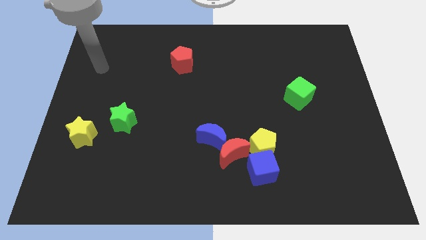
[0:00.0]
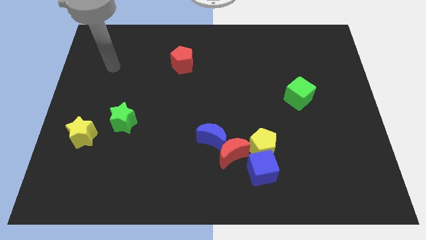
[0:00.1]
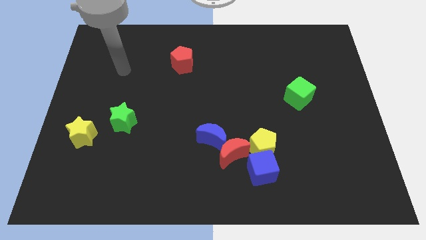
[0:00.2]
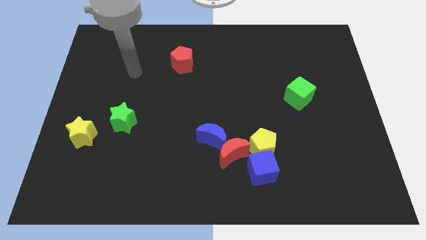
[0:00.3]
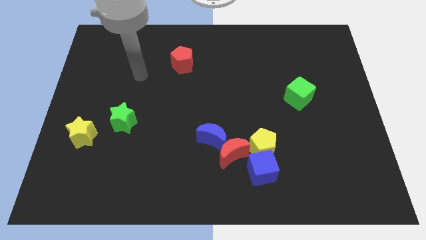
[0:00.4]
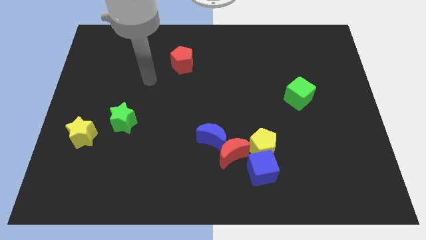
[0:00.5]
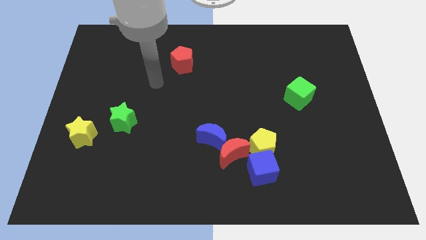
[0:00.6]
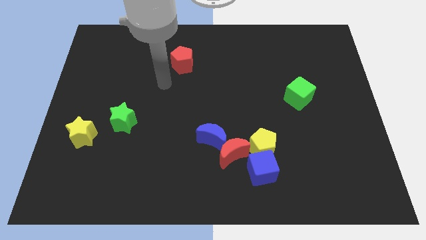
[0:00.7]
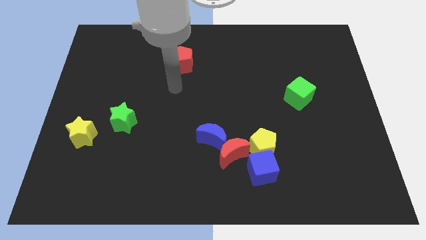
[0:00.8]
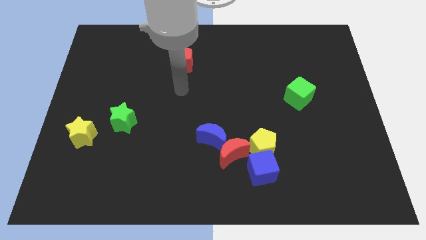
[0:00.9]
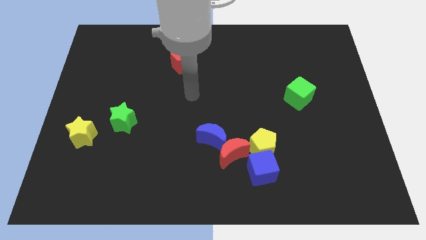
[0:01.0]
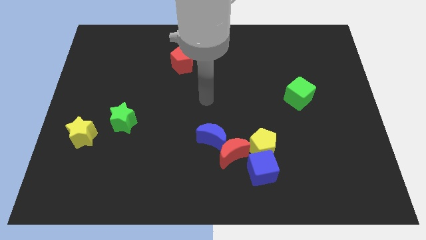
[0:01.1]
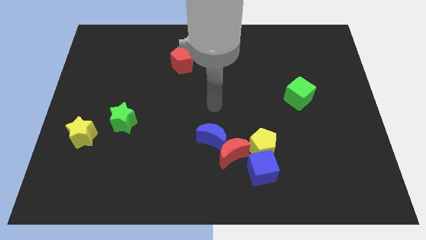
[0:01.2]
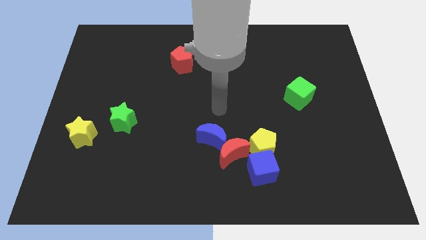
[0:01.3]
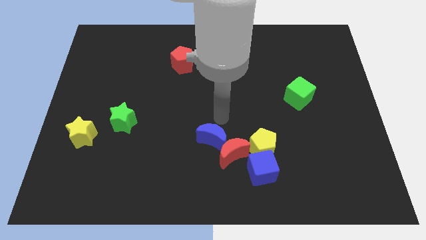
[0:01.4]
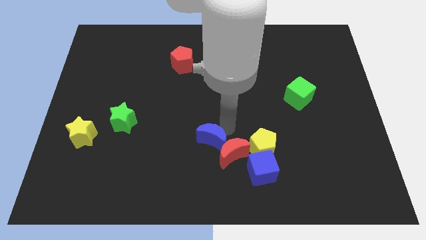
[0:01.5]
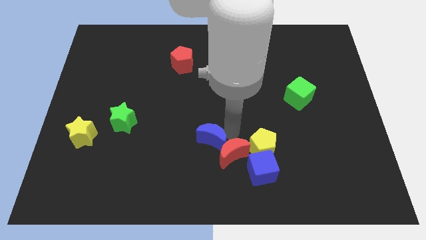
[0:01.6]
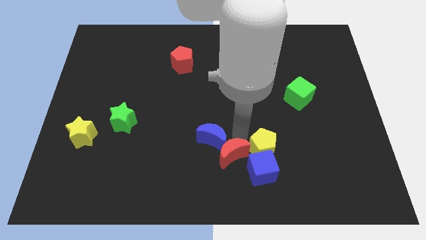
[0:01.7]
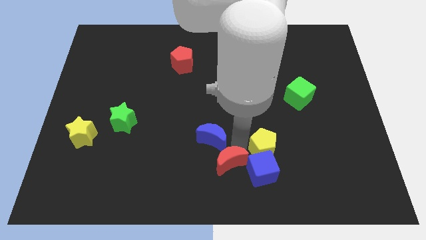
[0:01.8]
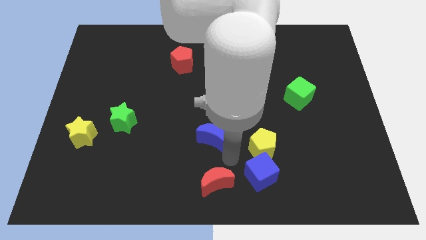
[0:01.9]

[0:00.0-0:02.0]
separate the blue moon from the red moon

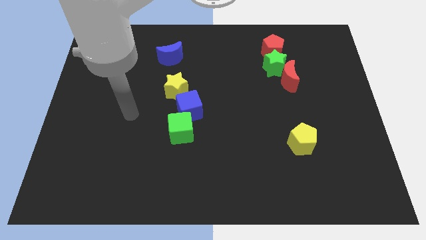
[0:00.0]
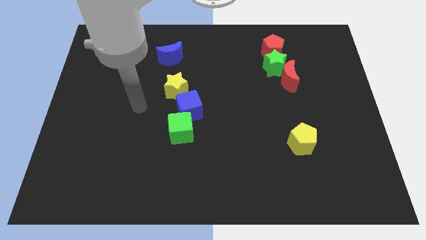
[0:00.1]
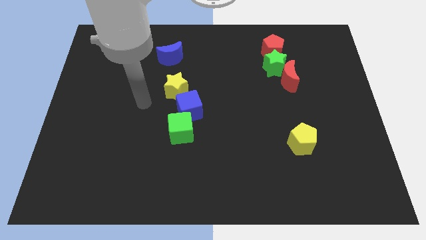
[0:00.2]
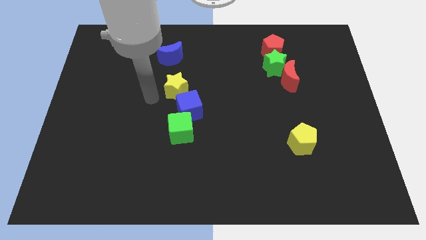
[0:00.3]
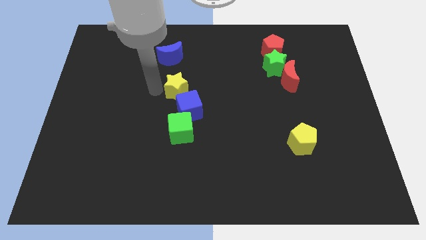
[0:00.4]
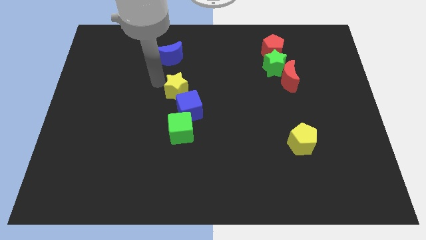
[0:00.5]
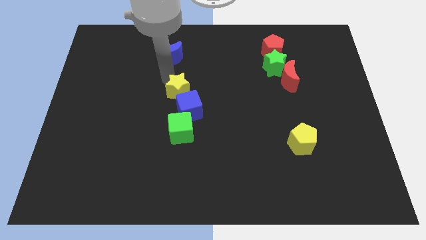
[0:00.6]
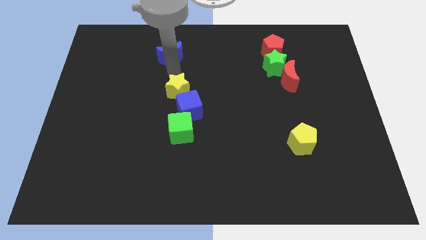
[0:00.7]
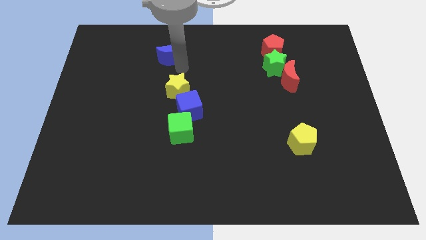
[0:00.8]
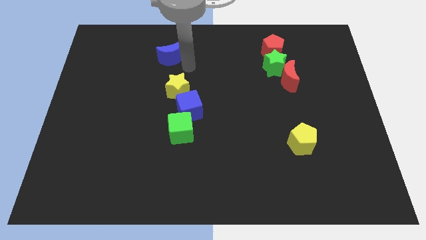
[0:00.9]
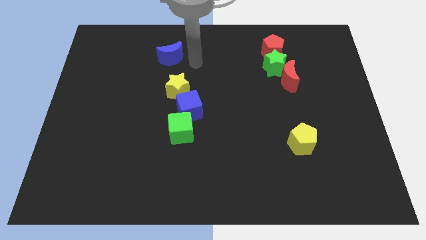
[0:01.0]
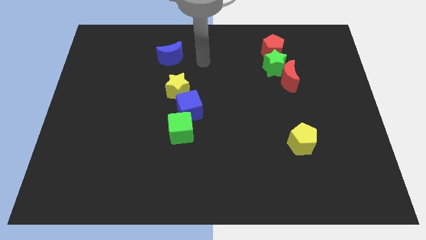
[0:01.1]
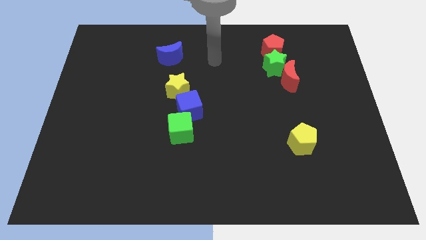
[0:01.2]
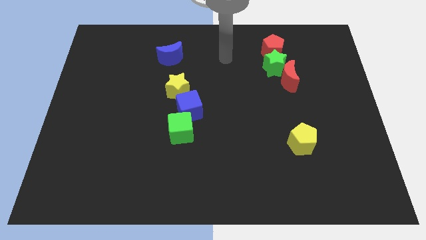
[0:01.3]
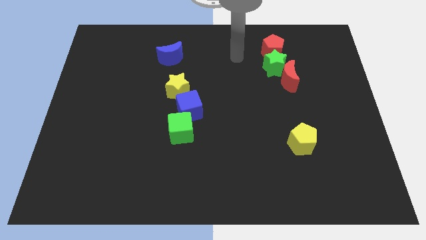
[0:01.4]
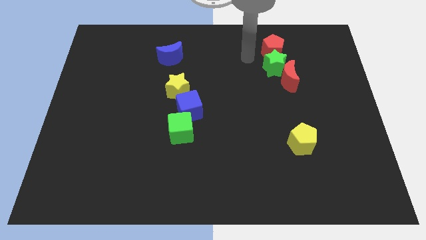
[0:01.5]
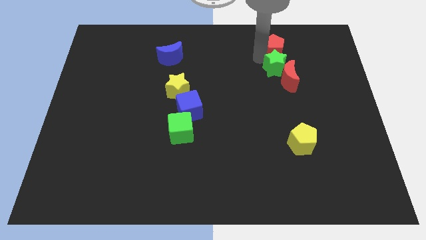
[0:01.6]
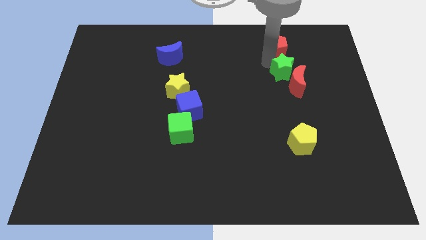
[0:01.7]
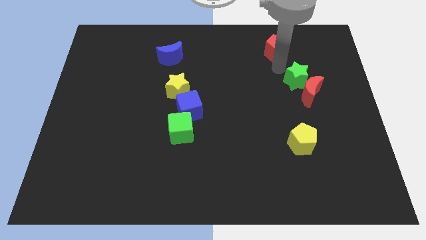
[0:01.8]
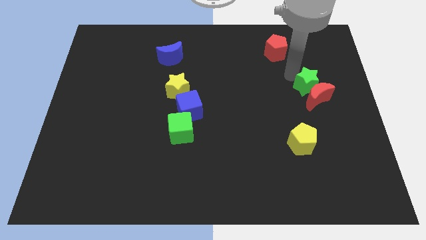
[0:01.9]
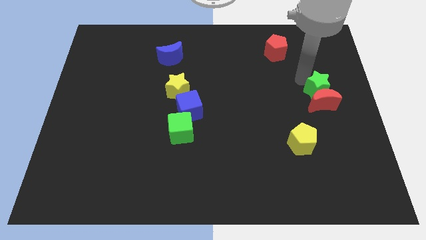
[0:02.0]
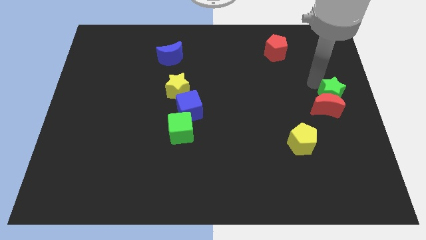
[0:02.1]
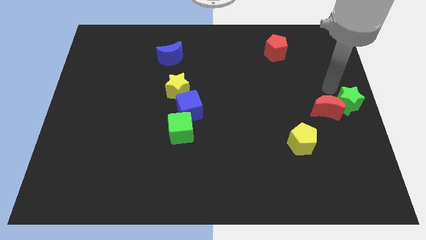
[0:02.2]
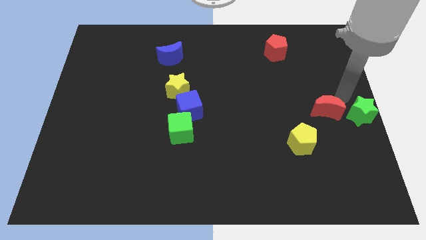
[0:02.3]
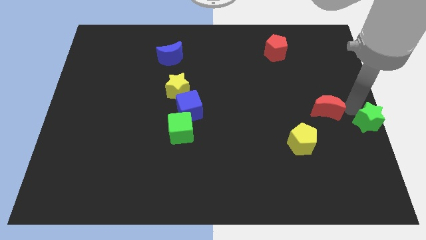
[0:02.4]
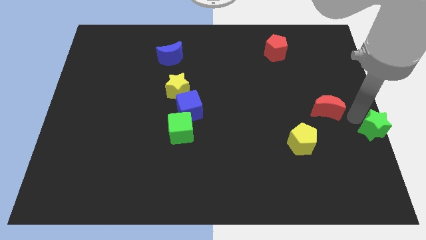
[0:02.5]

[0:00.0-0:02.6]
separate the red moon from the green star

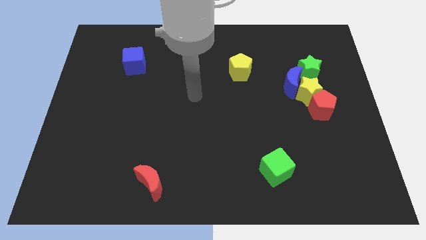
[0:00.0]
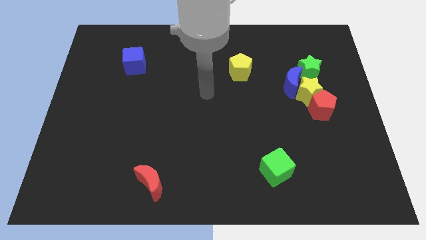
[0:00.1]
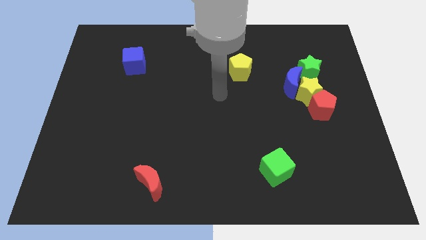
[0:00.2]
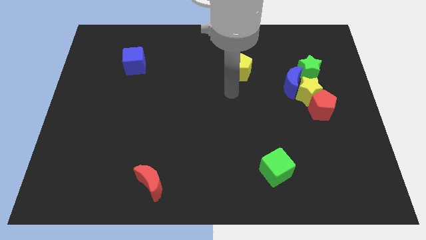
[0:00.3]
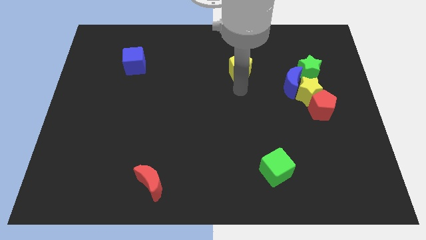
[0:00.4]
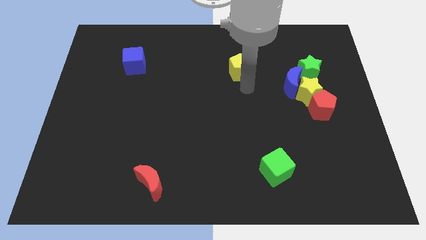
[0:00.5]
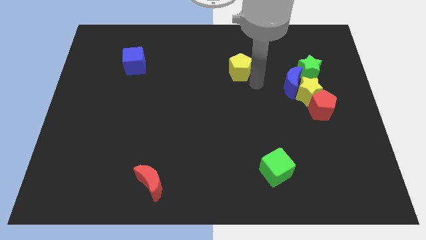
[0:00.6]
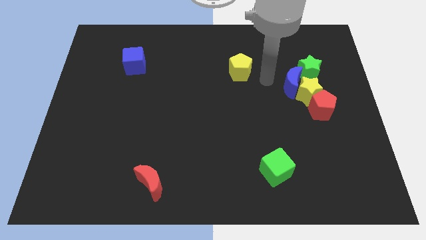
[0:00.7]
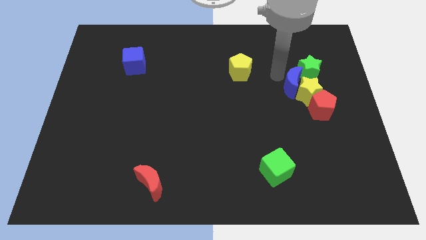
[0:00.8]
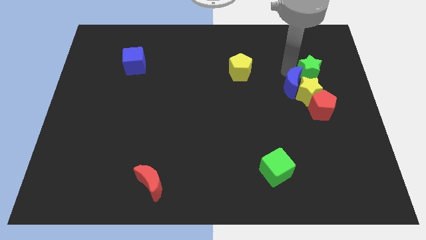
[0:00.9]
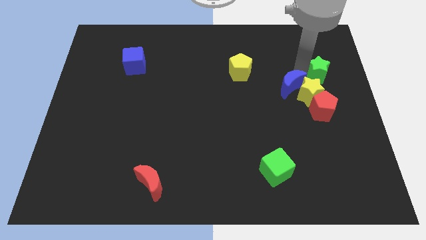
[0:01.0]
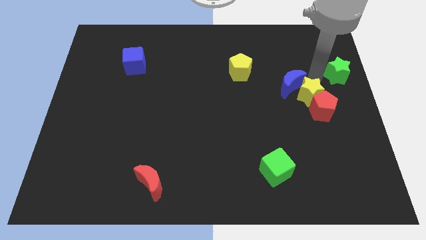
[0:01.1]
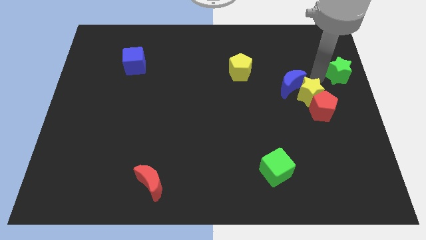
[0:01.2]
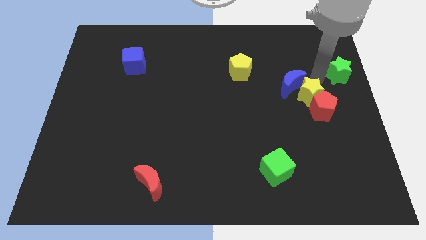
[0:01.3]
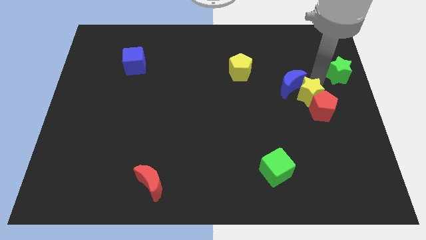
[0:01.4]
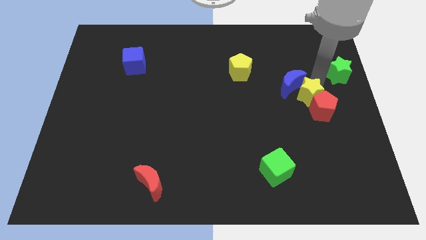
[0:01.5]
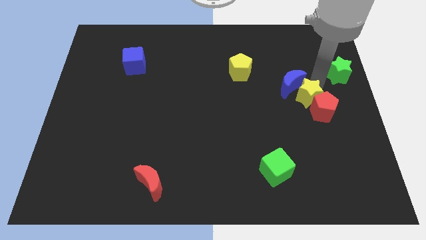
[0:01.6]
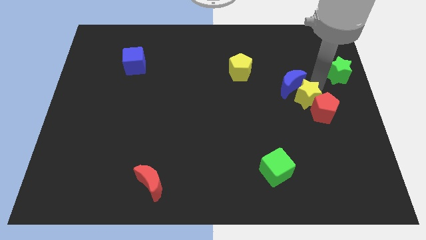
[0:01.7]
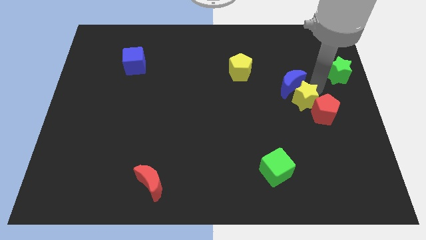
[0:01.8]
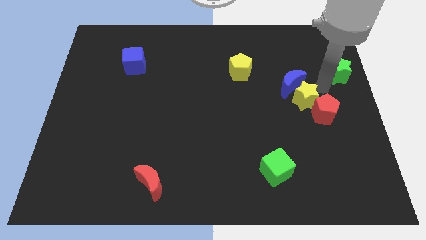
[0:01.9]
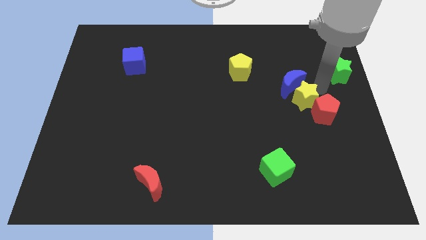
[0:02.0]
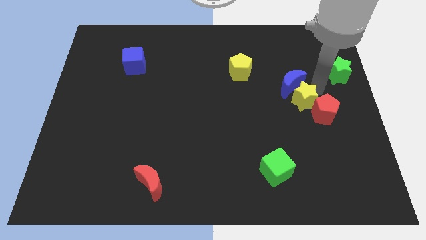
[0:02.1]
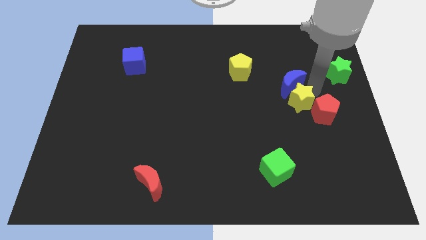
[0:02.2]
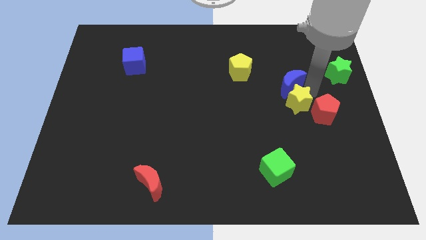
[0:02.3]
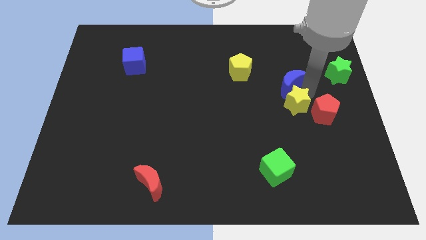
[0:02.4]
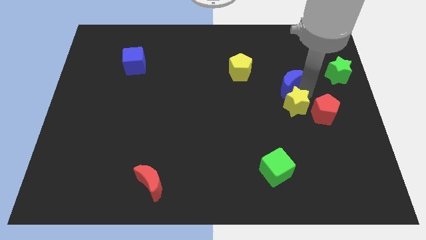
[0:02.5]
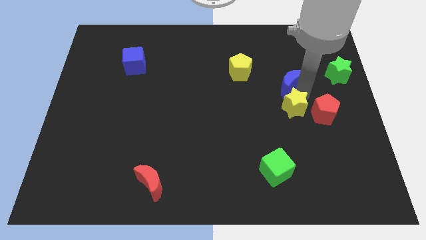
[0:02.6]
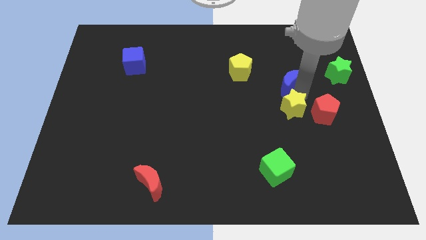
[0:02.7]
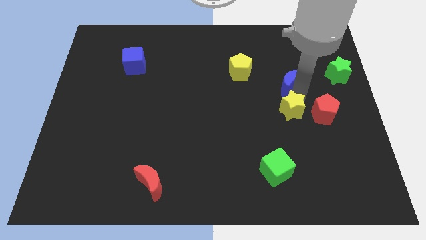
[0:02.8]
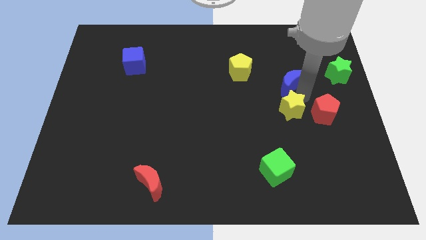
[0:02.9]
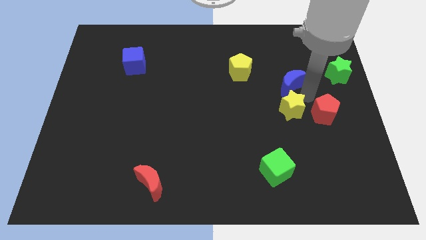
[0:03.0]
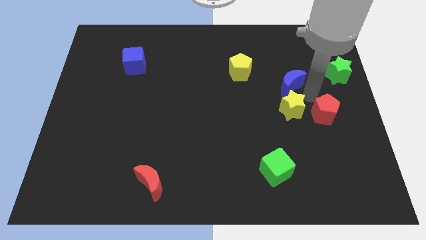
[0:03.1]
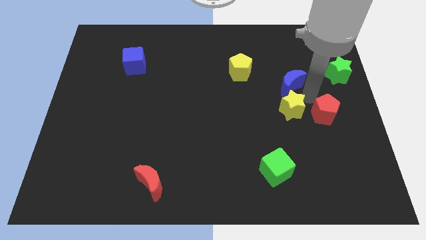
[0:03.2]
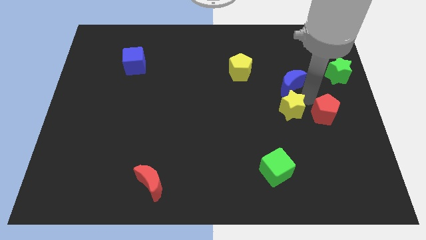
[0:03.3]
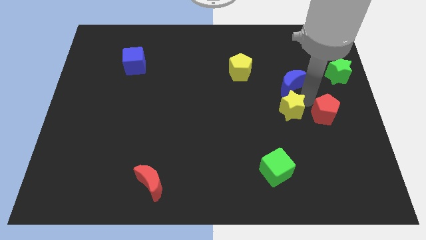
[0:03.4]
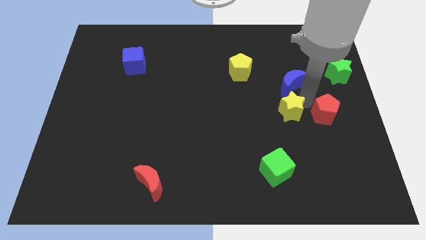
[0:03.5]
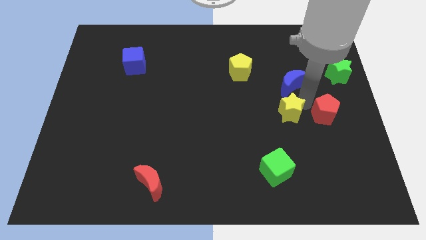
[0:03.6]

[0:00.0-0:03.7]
pull the yellow star apart from the group

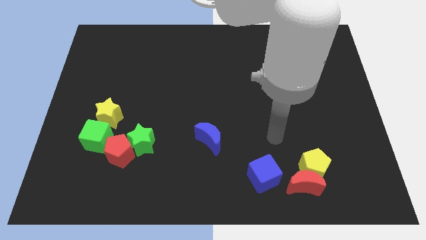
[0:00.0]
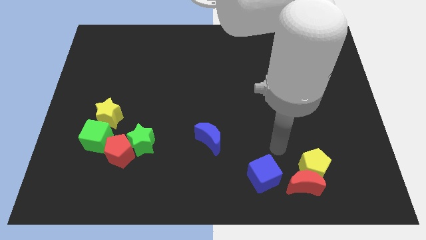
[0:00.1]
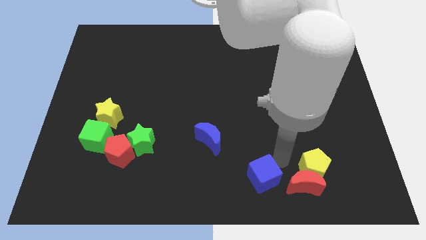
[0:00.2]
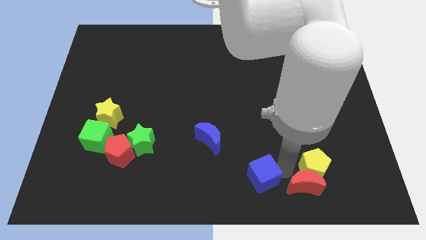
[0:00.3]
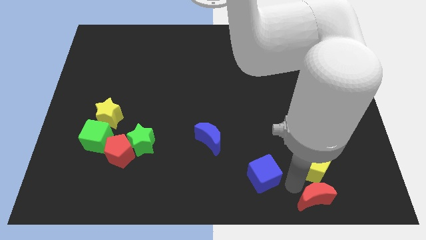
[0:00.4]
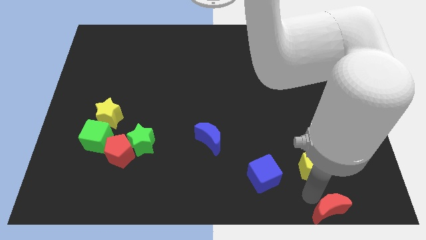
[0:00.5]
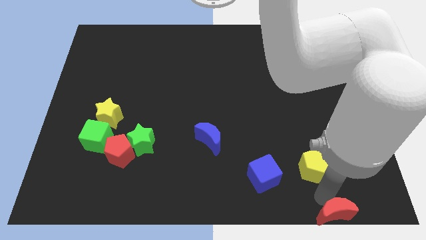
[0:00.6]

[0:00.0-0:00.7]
separate the yellow pentagon from the red moon

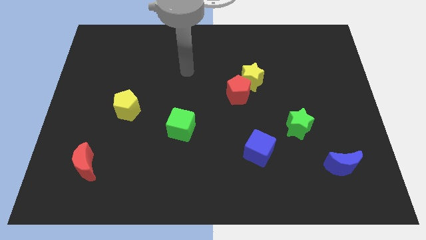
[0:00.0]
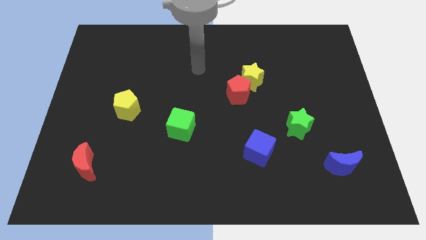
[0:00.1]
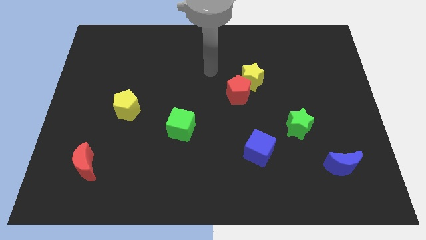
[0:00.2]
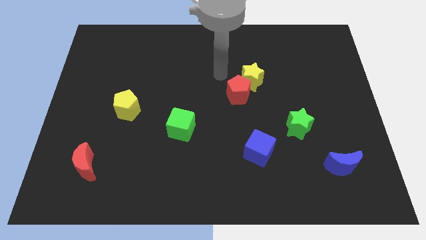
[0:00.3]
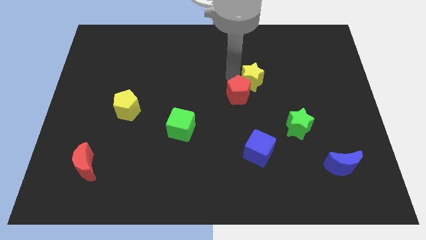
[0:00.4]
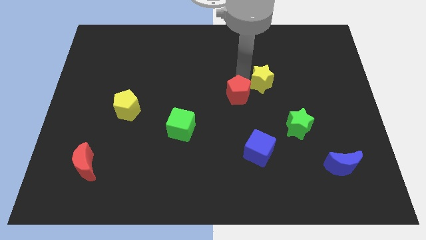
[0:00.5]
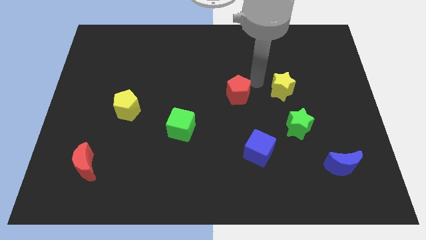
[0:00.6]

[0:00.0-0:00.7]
move the red pentagon away from the yellow star
